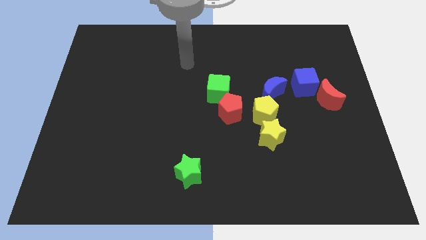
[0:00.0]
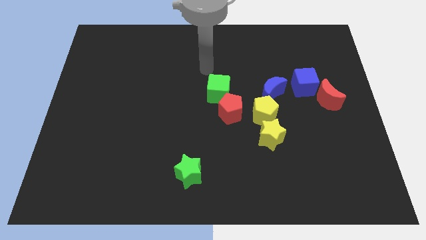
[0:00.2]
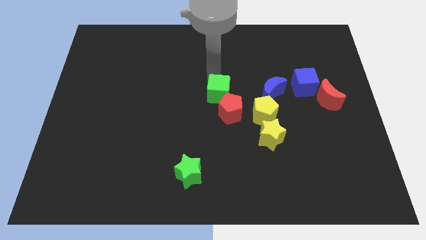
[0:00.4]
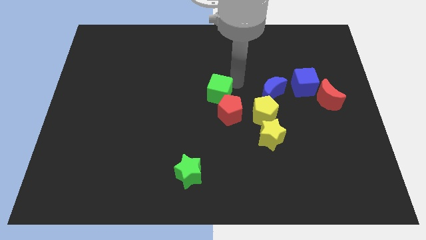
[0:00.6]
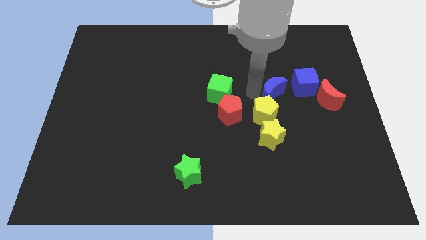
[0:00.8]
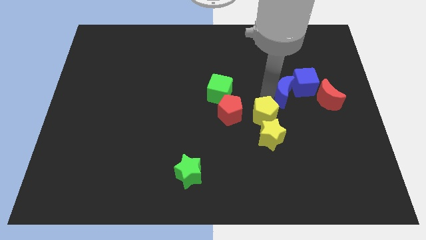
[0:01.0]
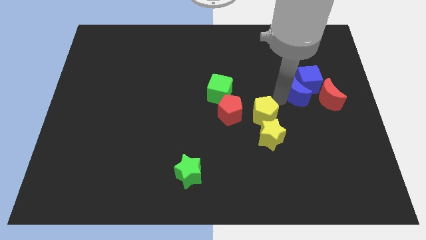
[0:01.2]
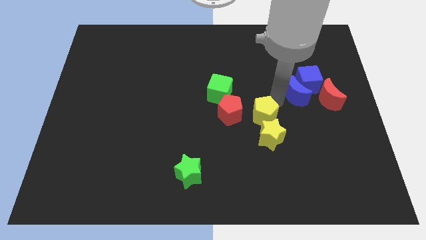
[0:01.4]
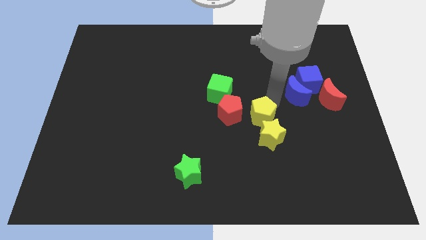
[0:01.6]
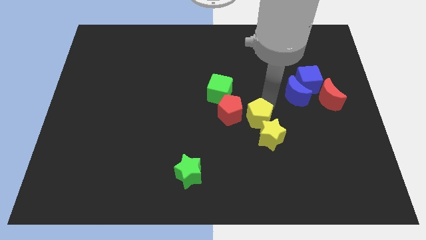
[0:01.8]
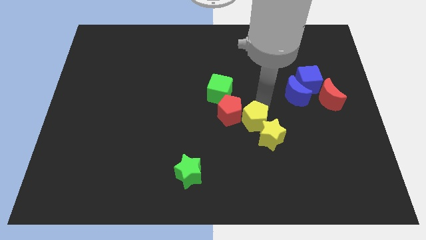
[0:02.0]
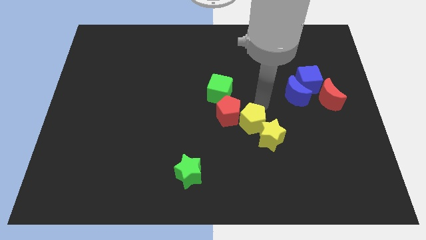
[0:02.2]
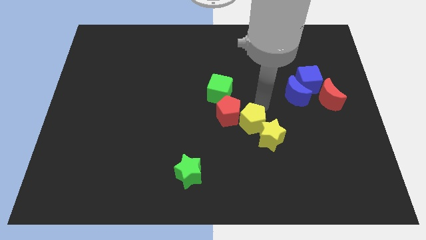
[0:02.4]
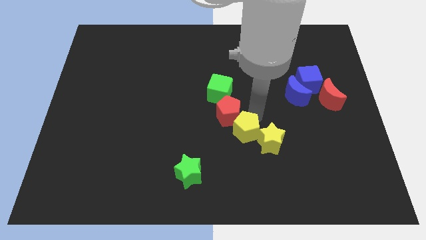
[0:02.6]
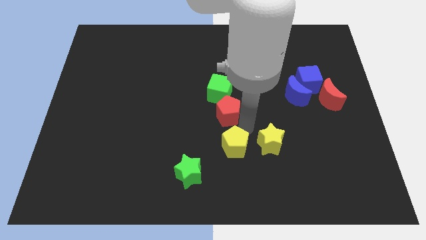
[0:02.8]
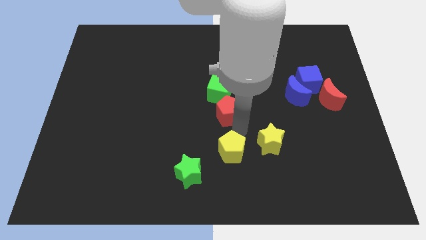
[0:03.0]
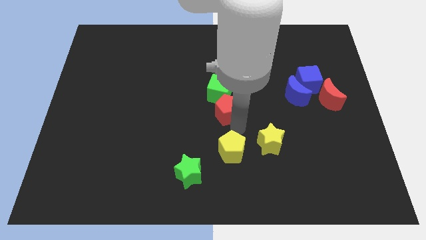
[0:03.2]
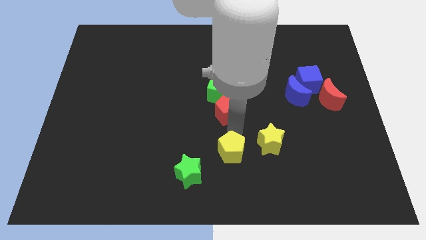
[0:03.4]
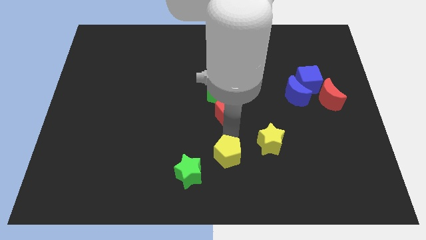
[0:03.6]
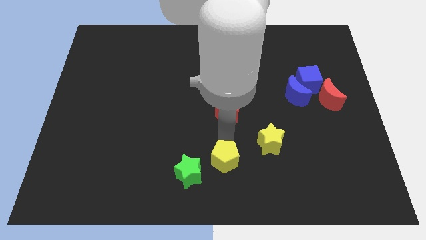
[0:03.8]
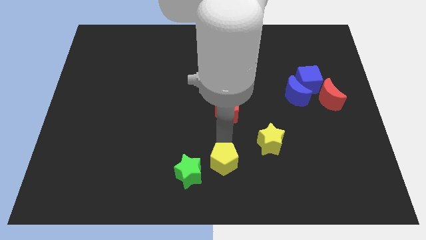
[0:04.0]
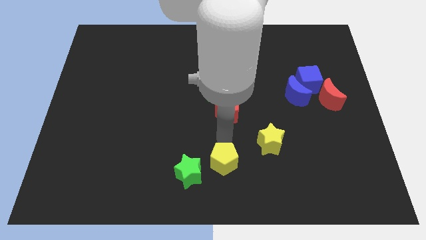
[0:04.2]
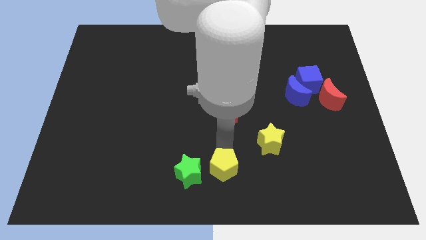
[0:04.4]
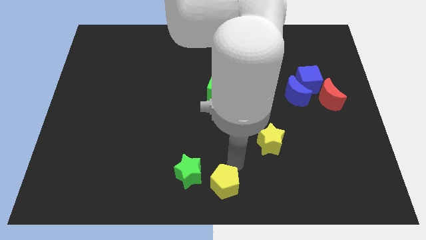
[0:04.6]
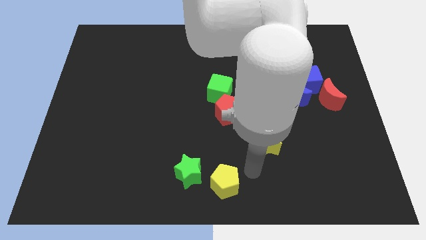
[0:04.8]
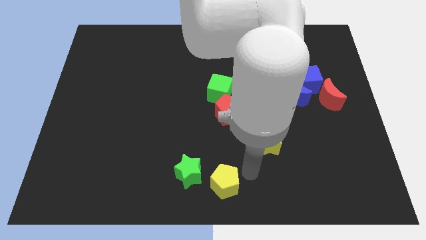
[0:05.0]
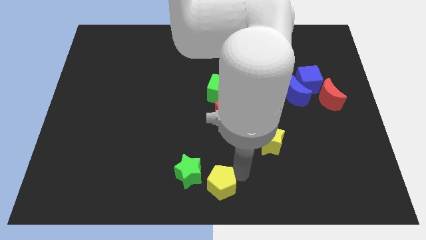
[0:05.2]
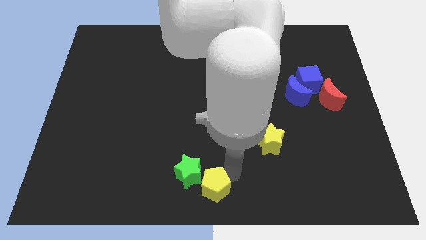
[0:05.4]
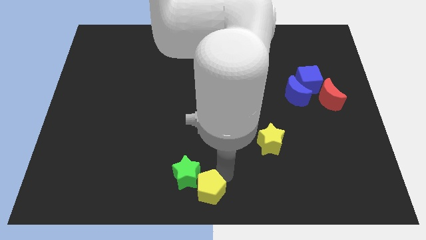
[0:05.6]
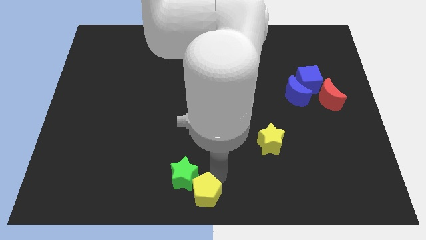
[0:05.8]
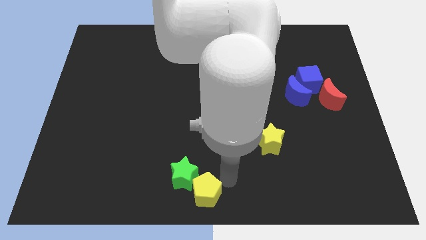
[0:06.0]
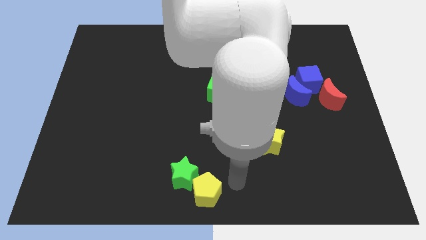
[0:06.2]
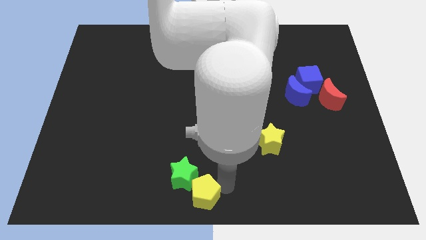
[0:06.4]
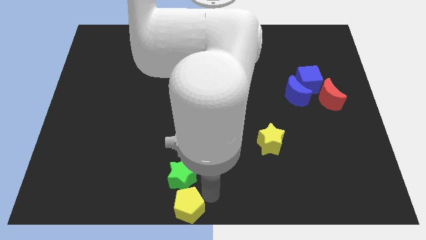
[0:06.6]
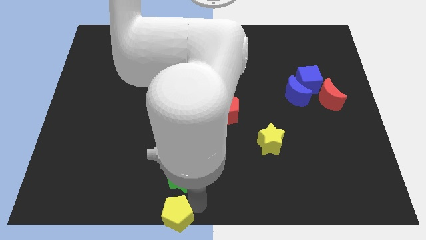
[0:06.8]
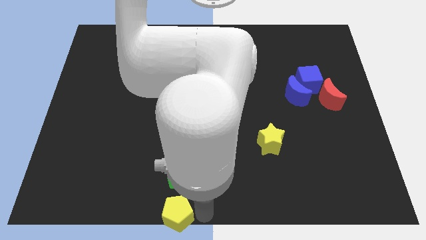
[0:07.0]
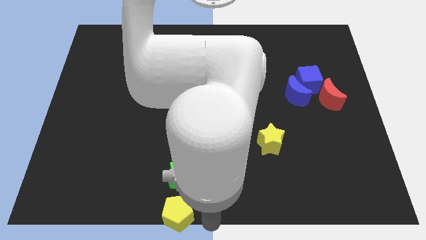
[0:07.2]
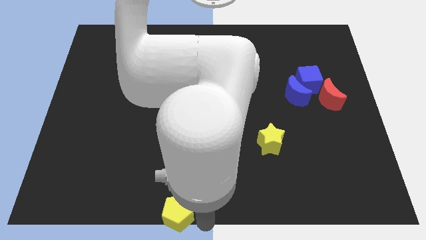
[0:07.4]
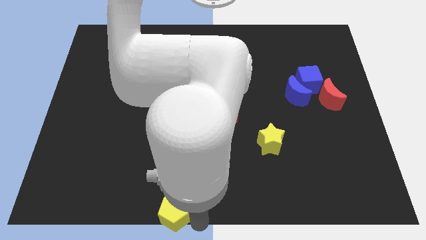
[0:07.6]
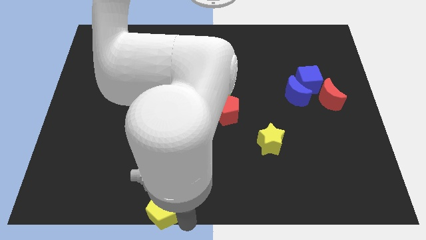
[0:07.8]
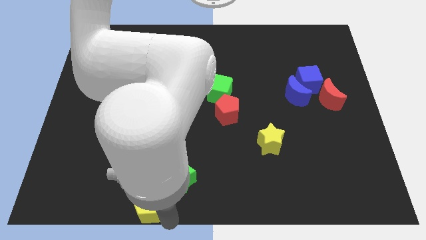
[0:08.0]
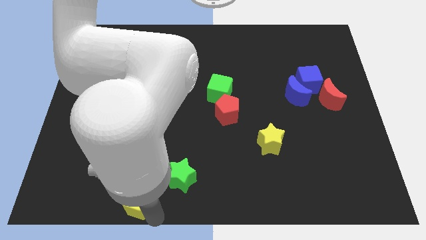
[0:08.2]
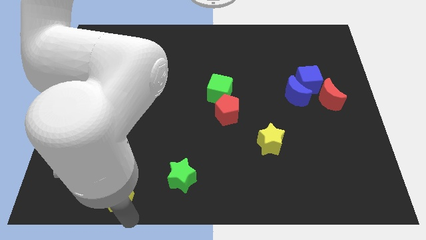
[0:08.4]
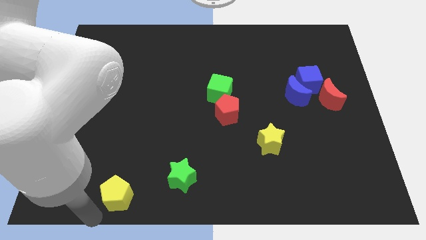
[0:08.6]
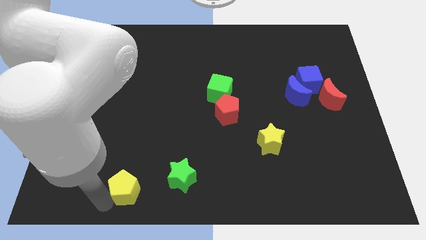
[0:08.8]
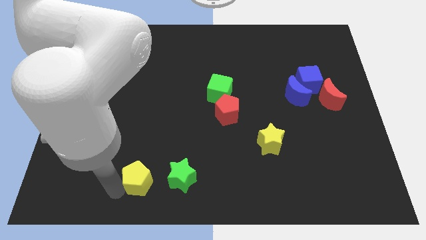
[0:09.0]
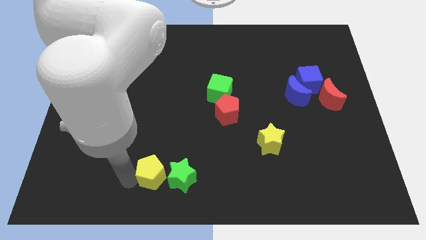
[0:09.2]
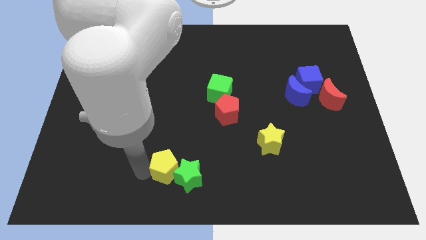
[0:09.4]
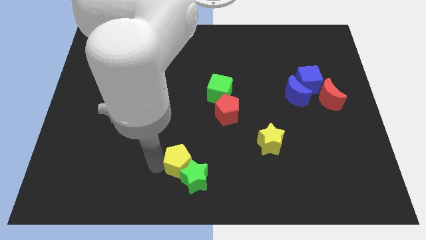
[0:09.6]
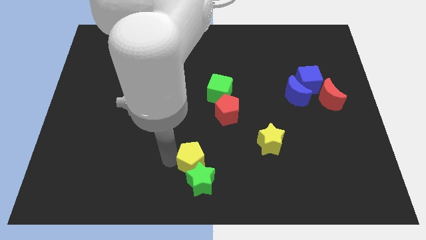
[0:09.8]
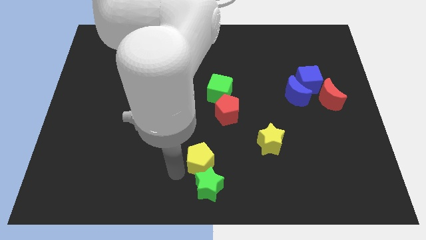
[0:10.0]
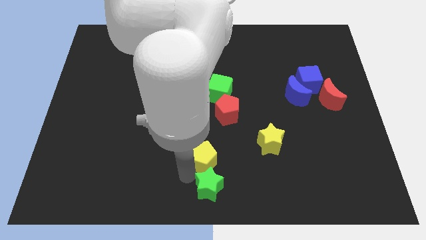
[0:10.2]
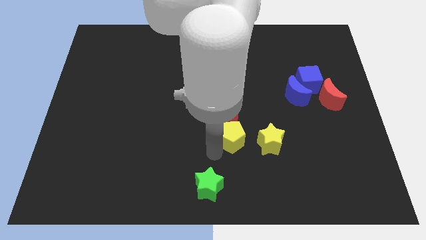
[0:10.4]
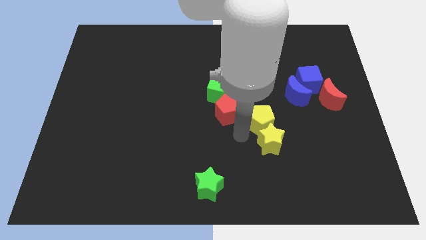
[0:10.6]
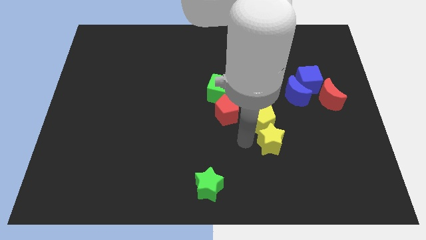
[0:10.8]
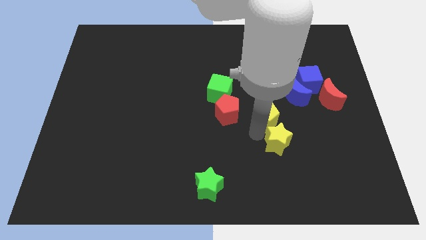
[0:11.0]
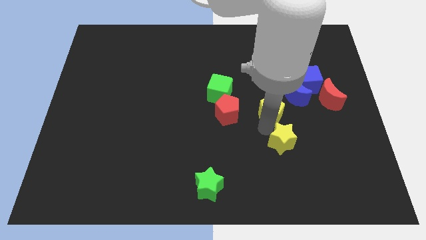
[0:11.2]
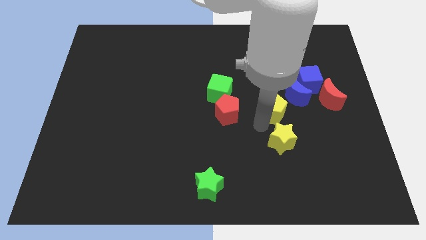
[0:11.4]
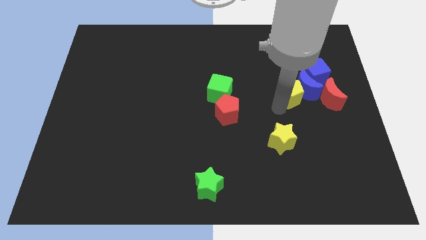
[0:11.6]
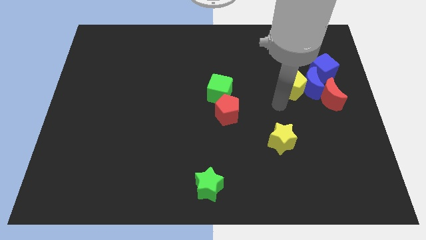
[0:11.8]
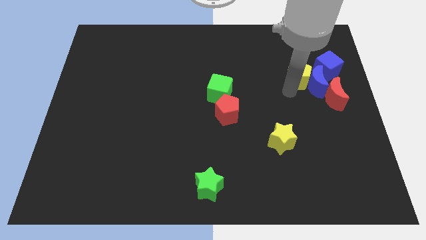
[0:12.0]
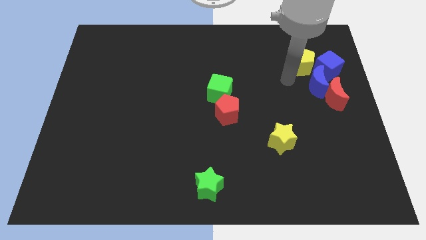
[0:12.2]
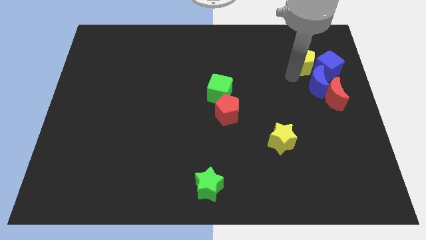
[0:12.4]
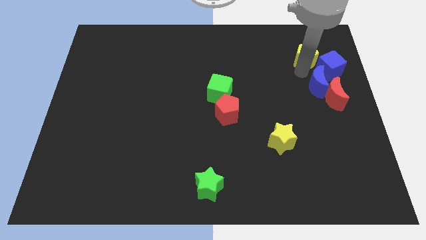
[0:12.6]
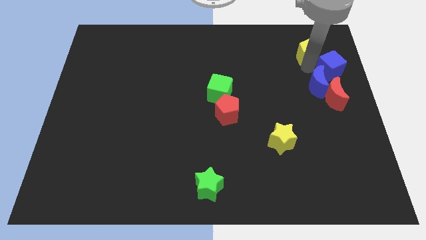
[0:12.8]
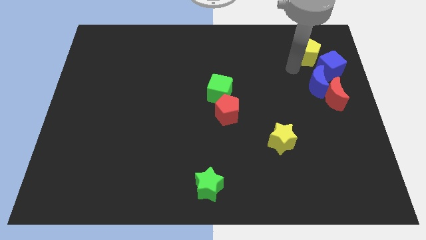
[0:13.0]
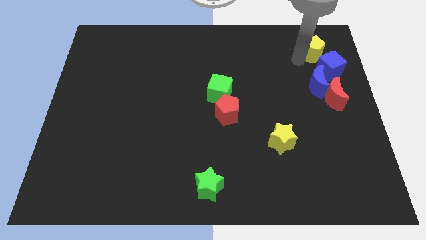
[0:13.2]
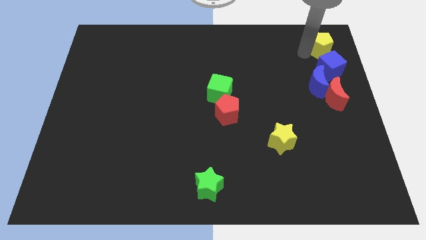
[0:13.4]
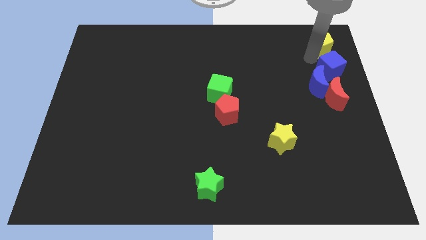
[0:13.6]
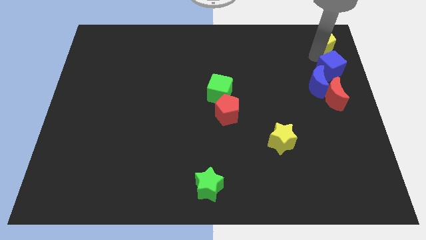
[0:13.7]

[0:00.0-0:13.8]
move the yellow pentagon to the top right corner
